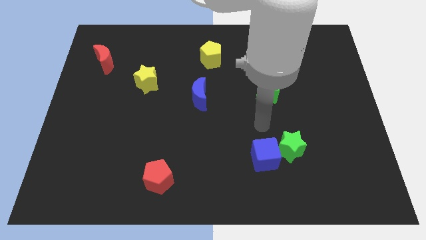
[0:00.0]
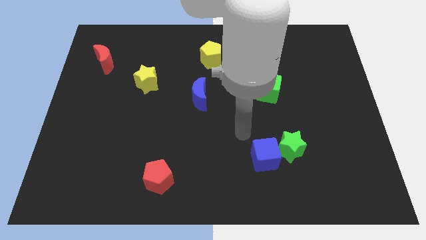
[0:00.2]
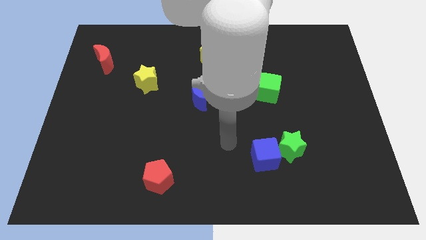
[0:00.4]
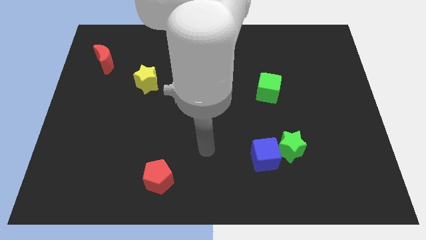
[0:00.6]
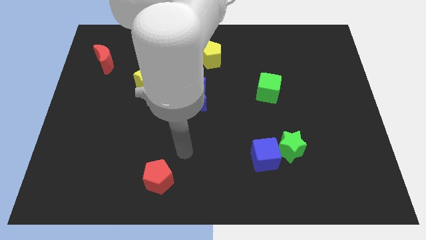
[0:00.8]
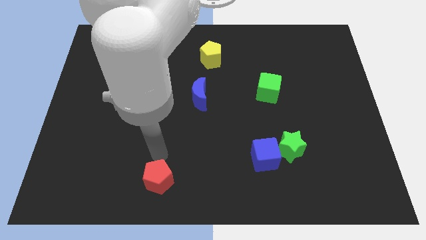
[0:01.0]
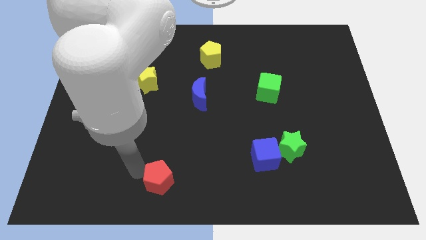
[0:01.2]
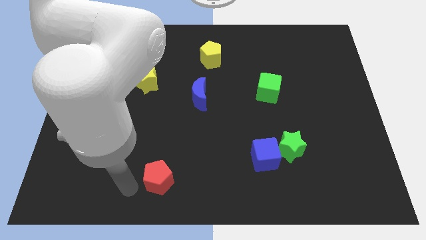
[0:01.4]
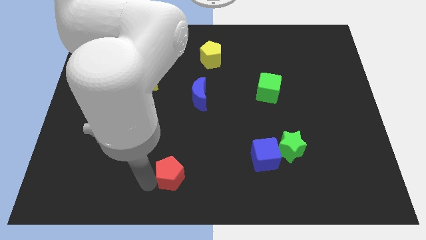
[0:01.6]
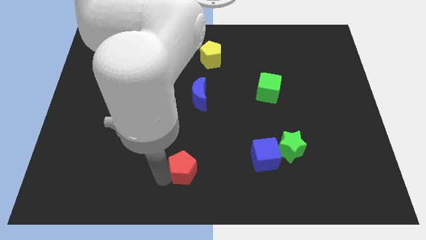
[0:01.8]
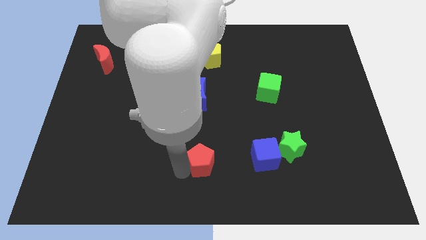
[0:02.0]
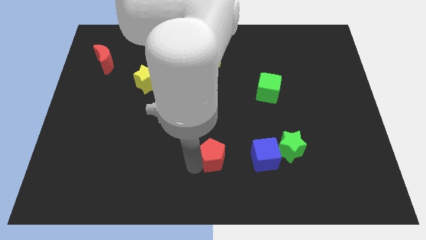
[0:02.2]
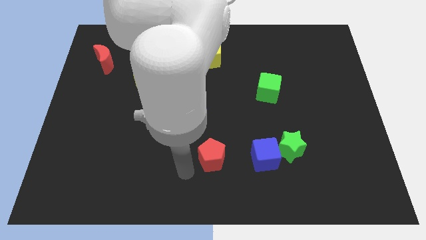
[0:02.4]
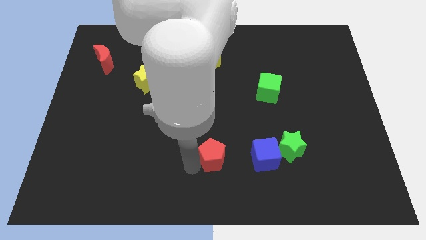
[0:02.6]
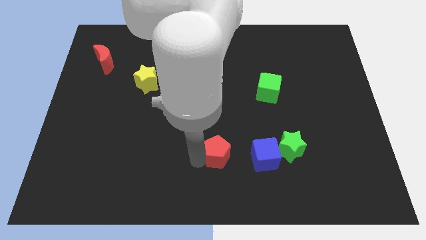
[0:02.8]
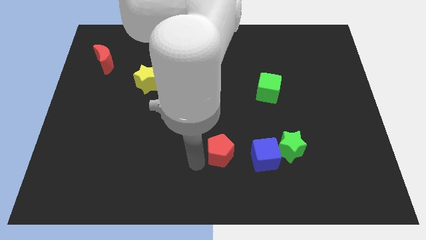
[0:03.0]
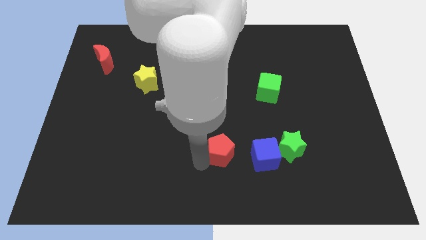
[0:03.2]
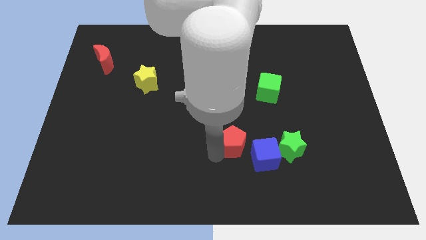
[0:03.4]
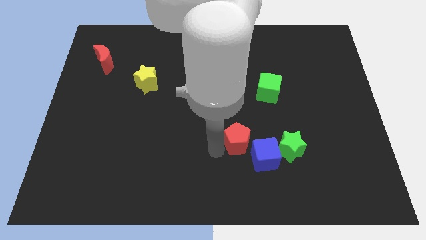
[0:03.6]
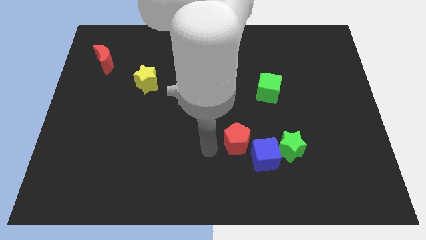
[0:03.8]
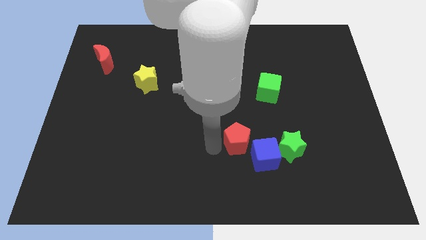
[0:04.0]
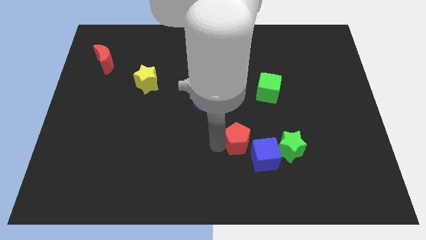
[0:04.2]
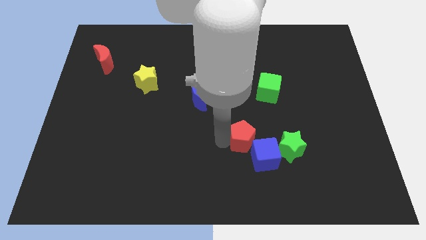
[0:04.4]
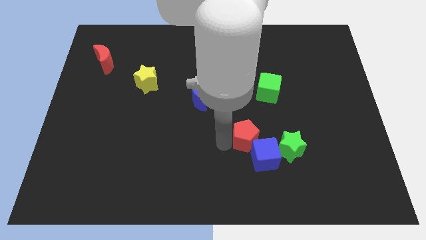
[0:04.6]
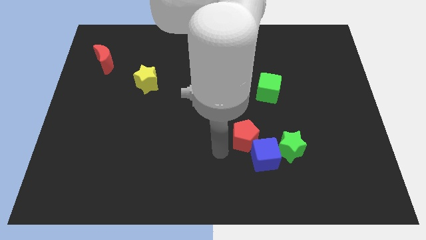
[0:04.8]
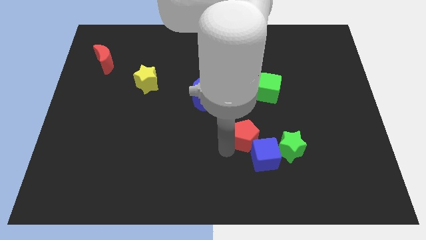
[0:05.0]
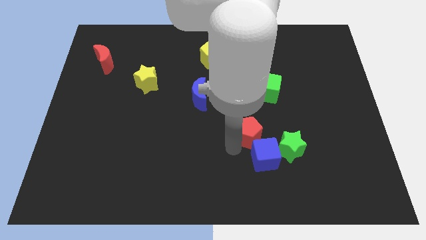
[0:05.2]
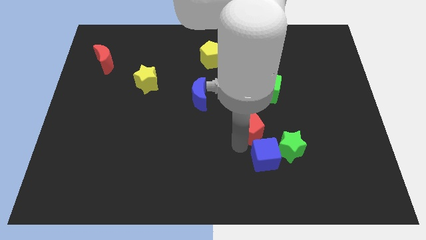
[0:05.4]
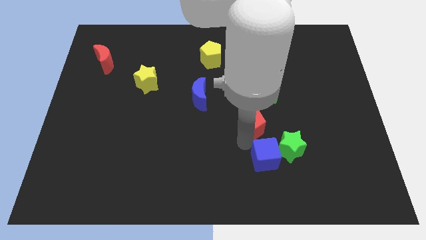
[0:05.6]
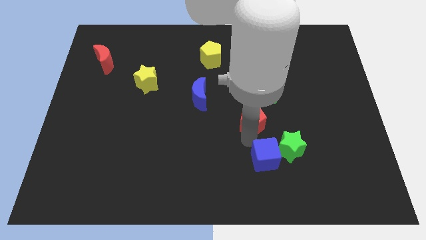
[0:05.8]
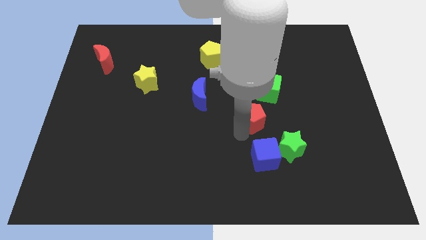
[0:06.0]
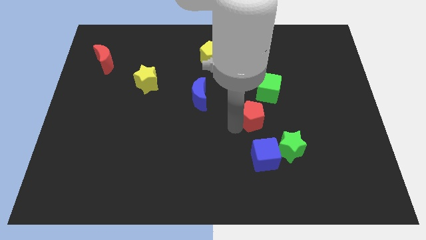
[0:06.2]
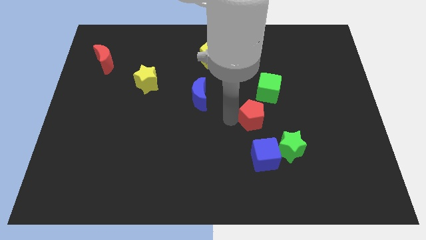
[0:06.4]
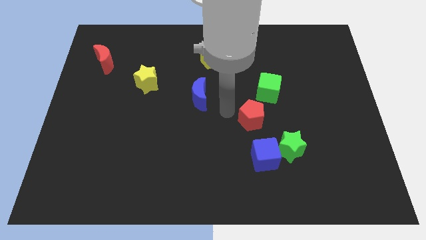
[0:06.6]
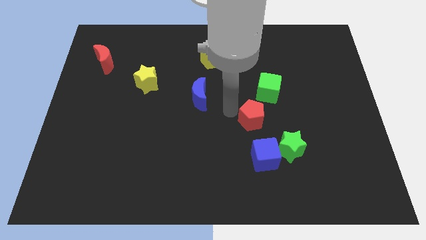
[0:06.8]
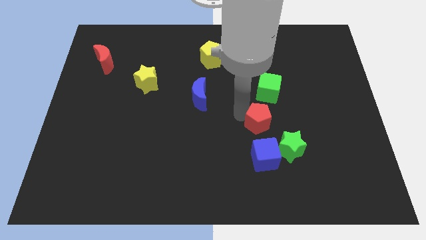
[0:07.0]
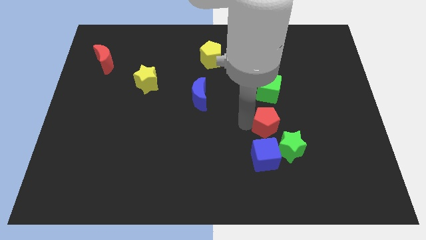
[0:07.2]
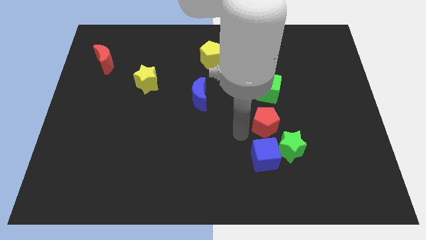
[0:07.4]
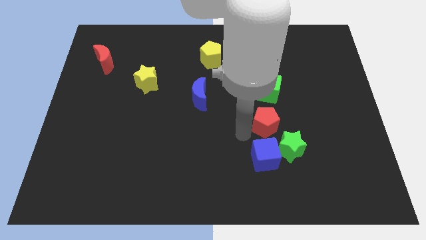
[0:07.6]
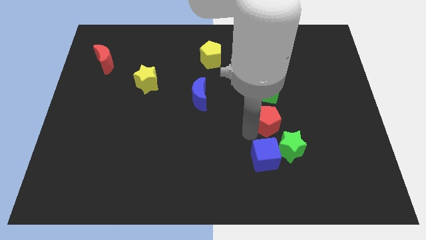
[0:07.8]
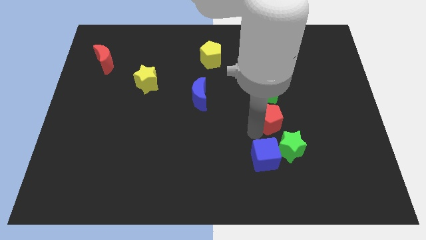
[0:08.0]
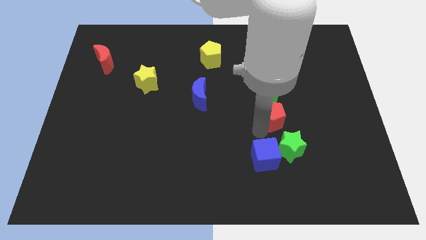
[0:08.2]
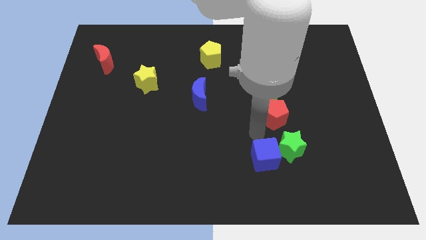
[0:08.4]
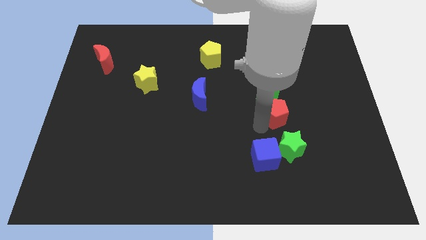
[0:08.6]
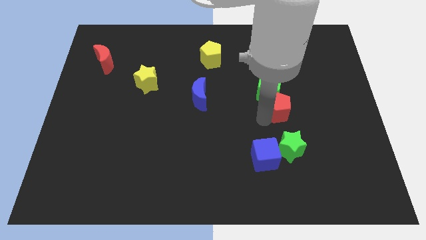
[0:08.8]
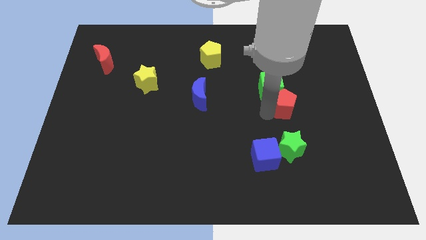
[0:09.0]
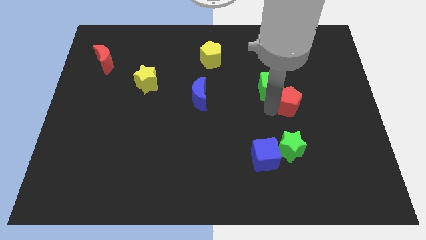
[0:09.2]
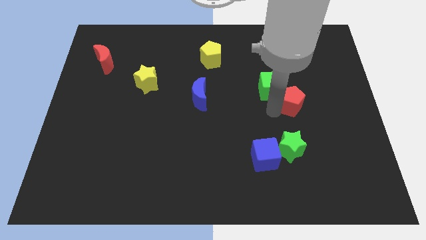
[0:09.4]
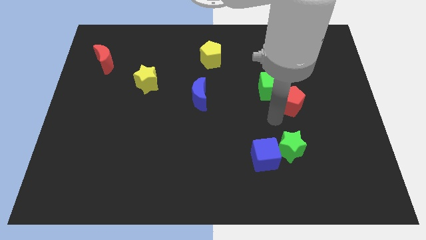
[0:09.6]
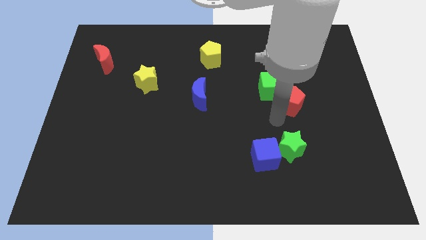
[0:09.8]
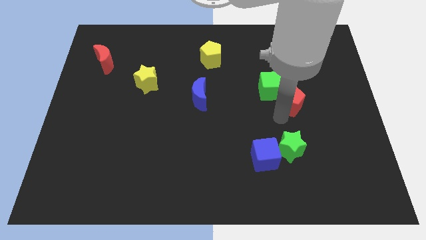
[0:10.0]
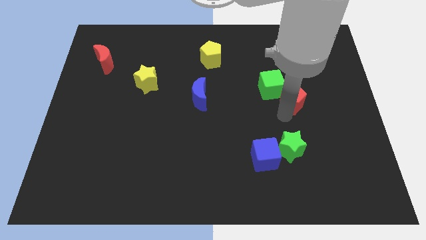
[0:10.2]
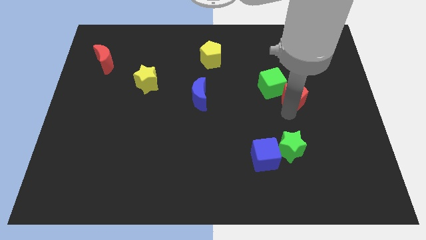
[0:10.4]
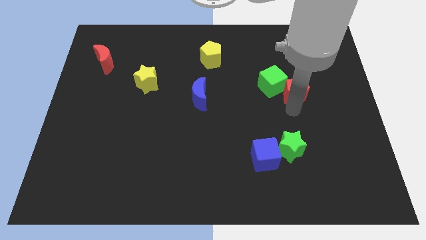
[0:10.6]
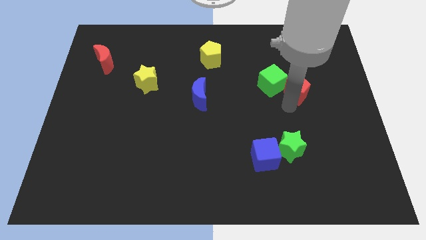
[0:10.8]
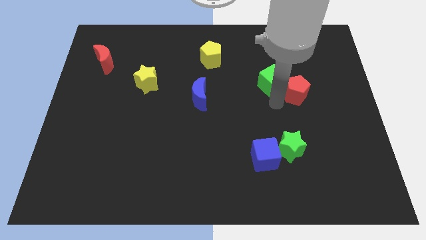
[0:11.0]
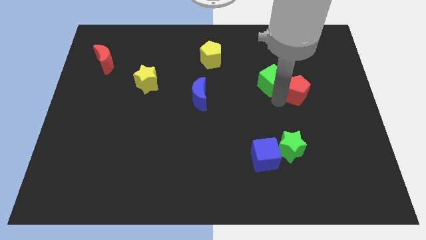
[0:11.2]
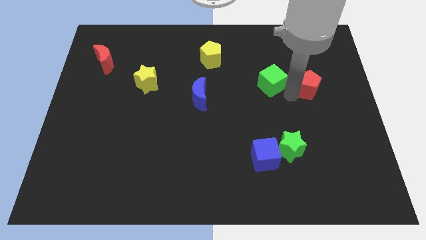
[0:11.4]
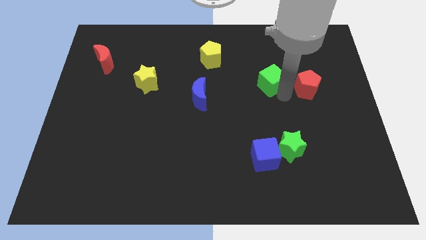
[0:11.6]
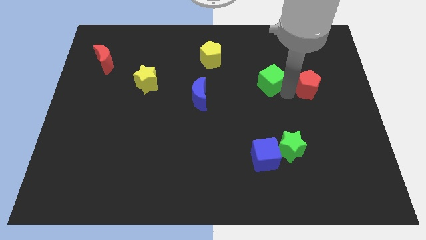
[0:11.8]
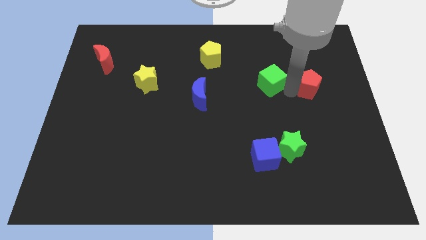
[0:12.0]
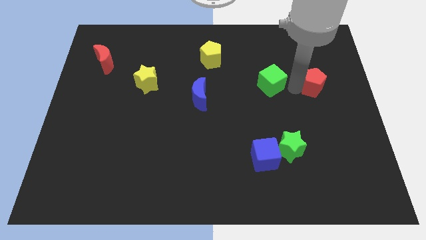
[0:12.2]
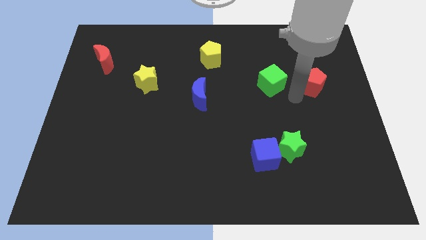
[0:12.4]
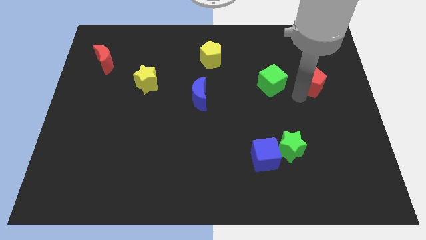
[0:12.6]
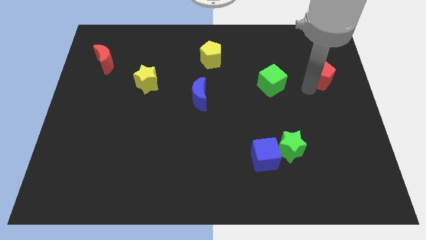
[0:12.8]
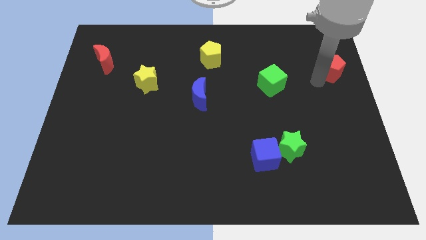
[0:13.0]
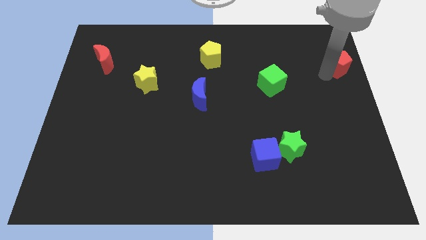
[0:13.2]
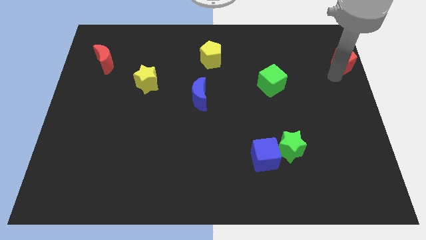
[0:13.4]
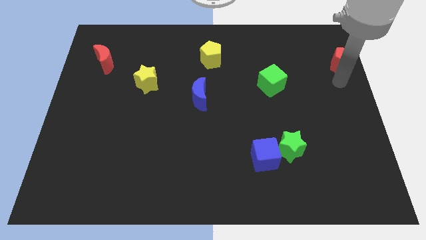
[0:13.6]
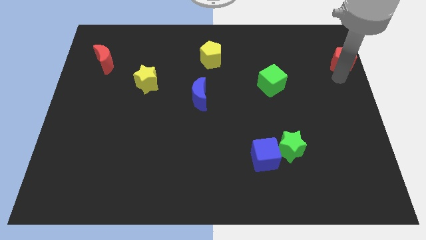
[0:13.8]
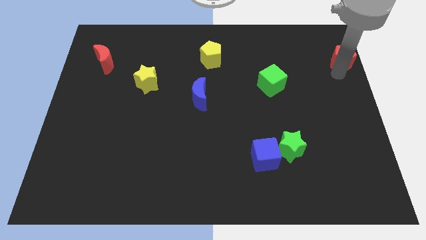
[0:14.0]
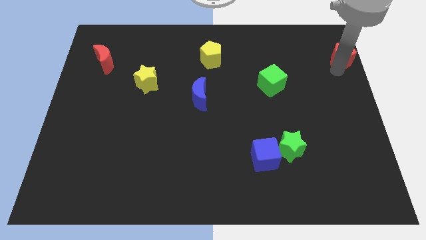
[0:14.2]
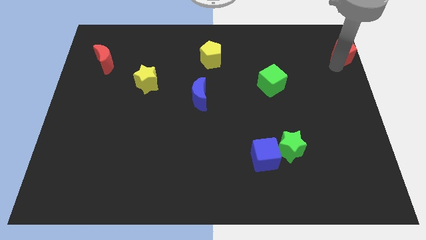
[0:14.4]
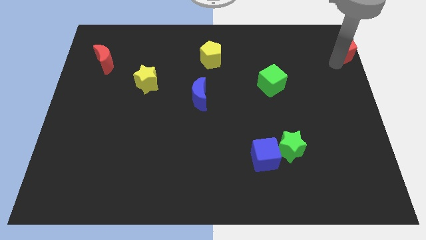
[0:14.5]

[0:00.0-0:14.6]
push the red pentagon to the top right corner
